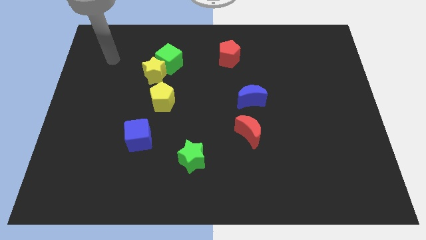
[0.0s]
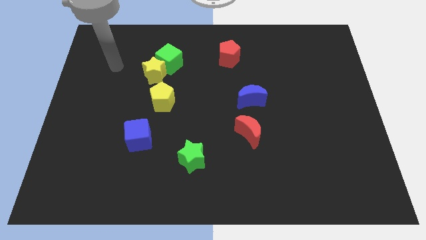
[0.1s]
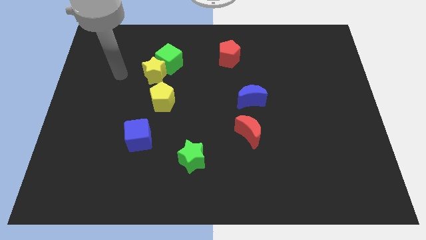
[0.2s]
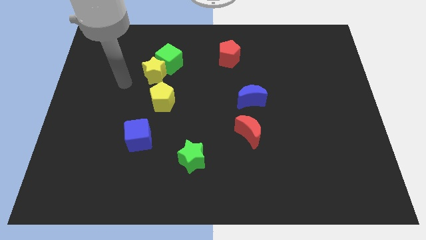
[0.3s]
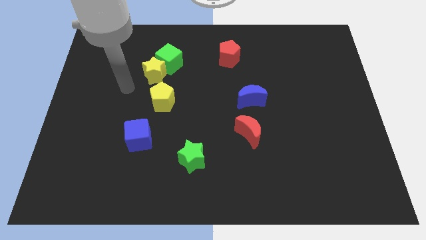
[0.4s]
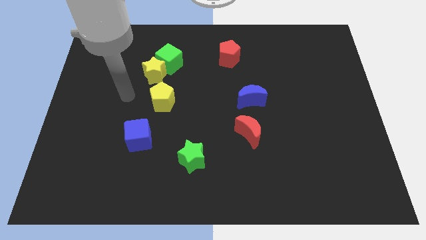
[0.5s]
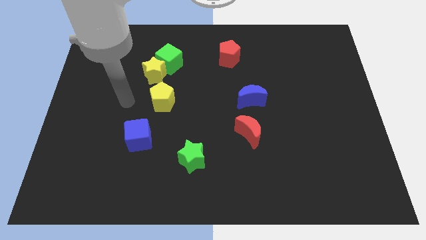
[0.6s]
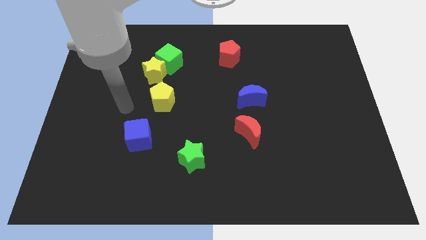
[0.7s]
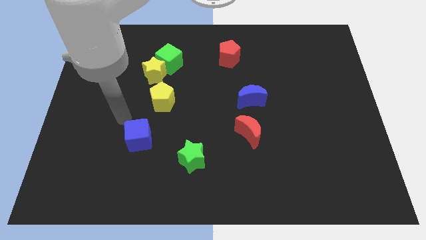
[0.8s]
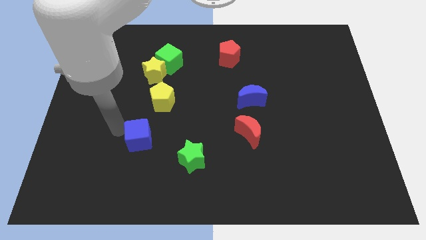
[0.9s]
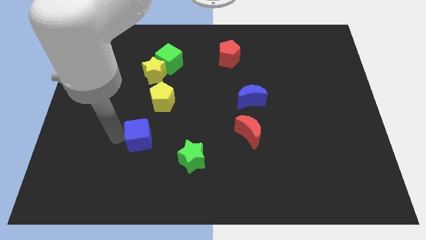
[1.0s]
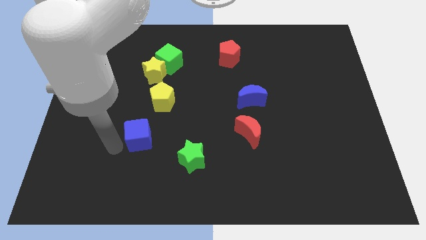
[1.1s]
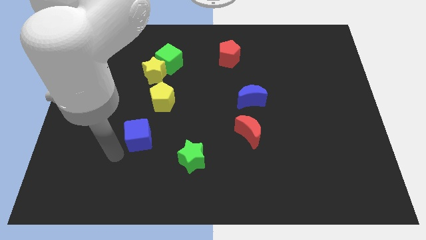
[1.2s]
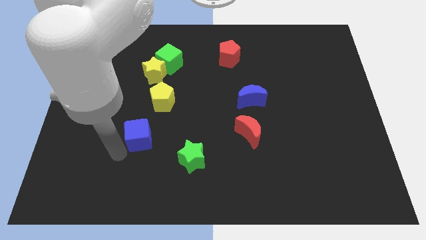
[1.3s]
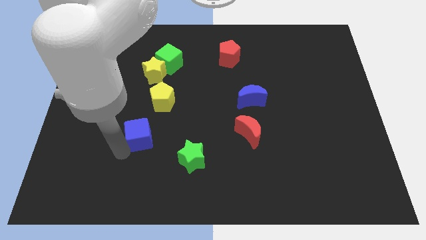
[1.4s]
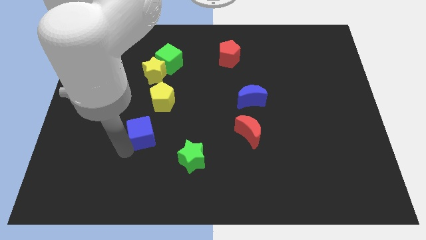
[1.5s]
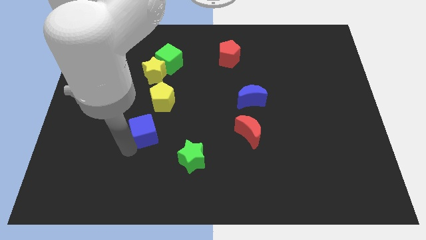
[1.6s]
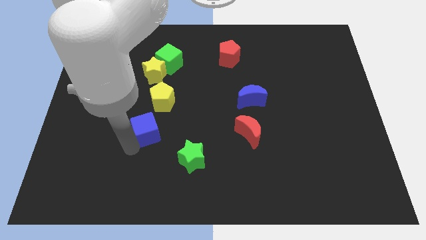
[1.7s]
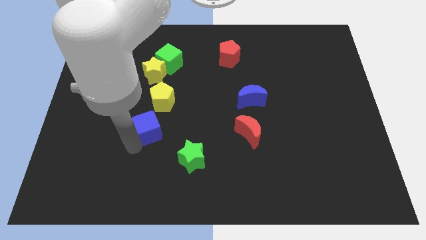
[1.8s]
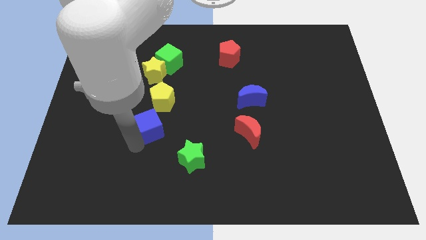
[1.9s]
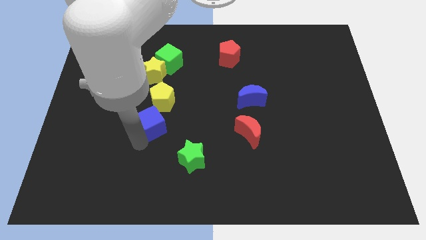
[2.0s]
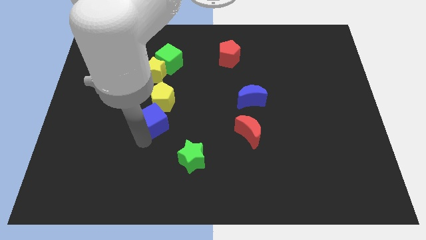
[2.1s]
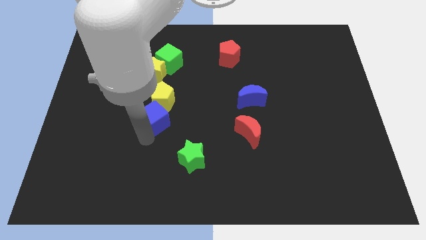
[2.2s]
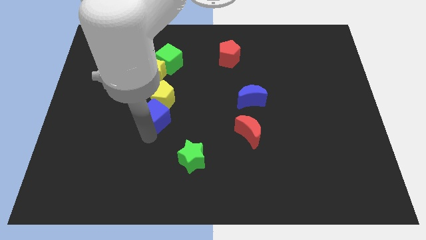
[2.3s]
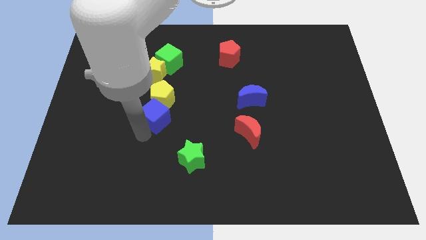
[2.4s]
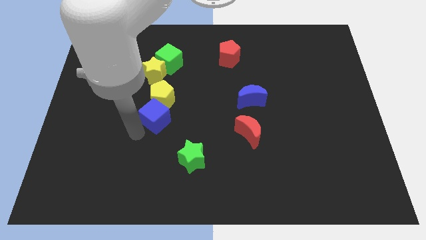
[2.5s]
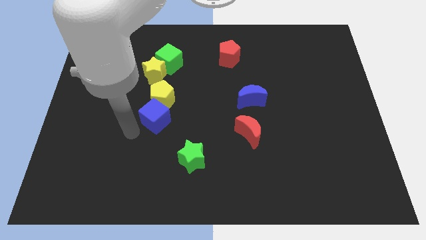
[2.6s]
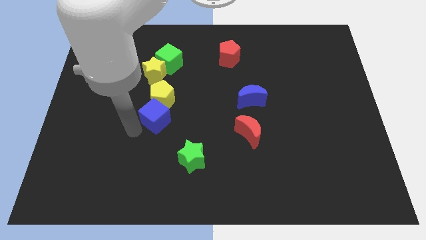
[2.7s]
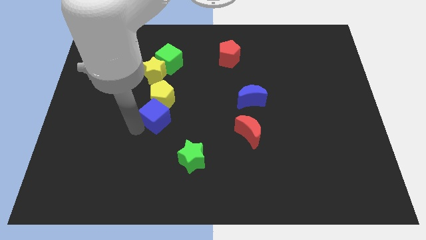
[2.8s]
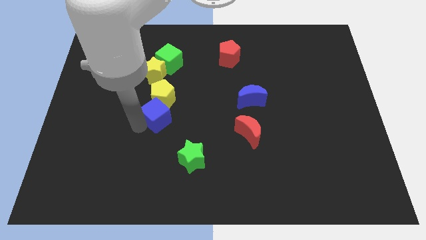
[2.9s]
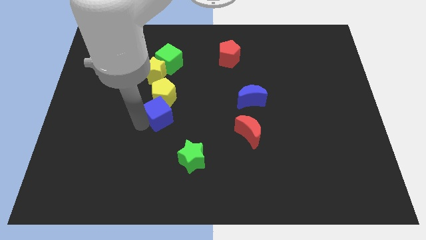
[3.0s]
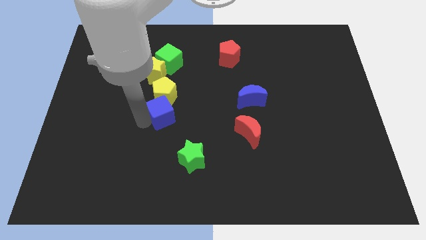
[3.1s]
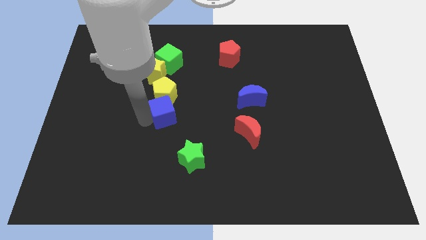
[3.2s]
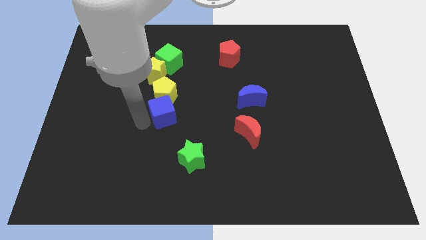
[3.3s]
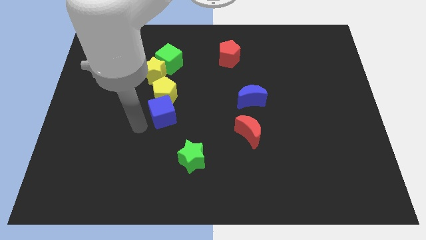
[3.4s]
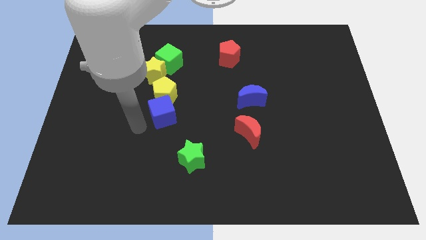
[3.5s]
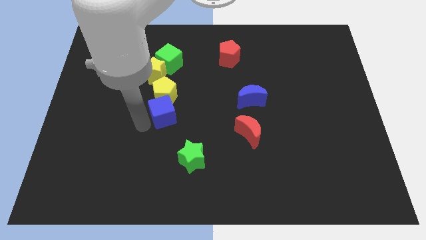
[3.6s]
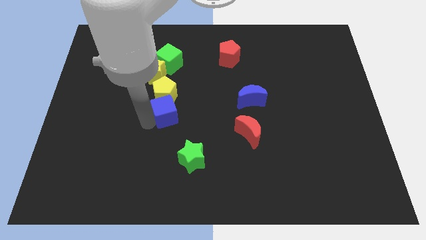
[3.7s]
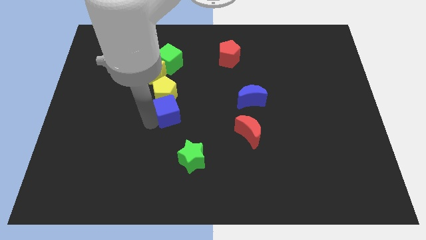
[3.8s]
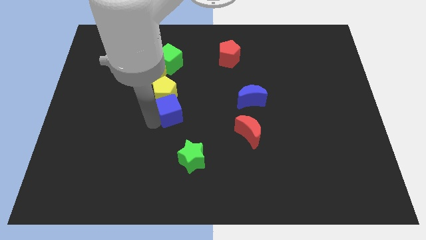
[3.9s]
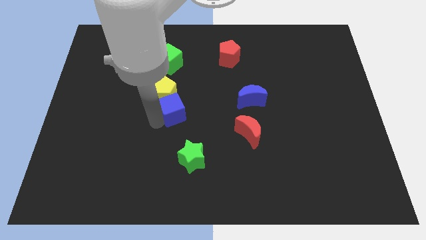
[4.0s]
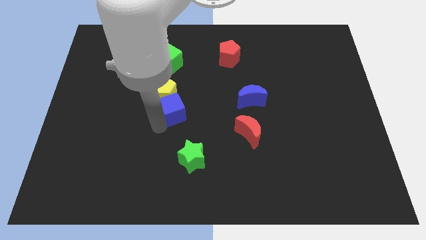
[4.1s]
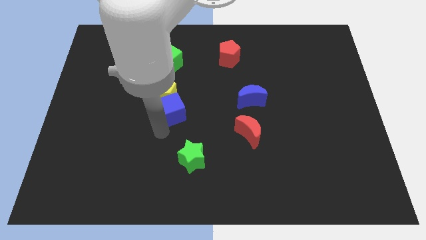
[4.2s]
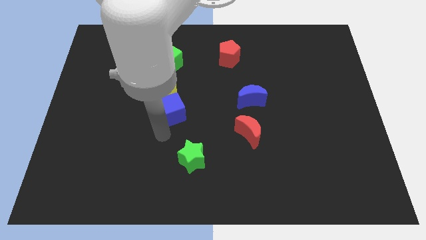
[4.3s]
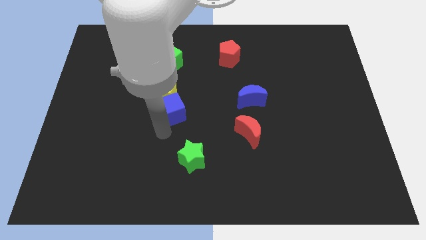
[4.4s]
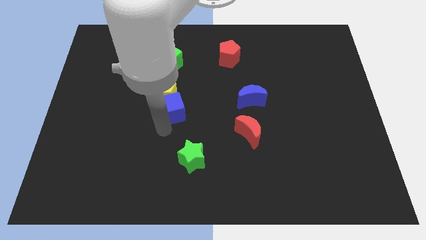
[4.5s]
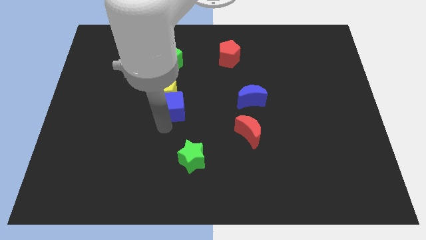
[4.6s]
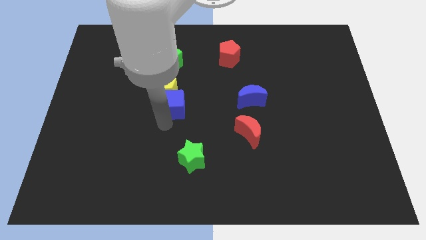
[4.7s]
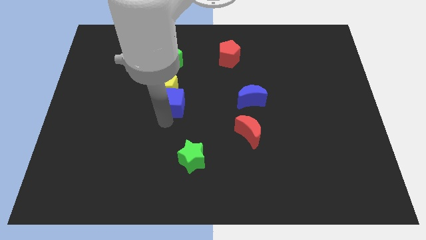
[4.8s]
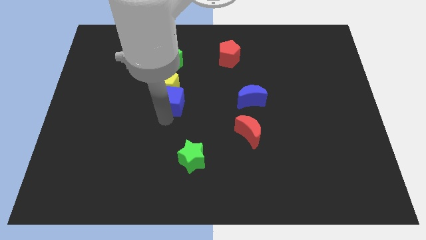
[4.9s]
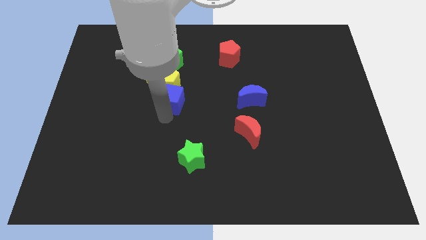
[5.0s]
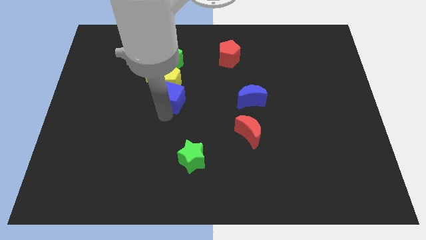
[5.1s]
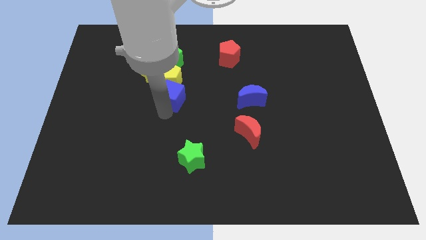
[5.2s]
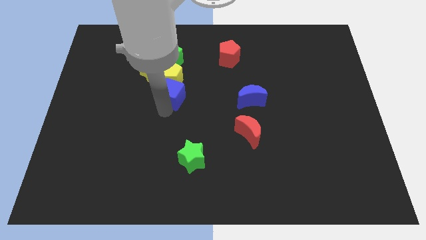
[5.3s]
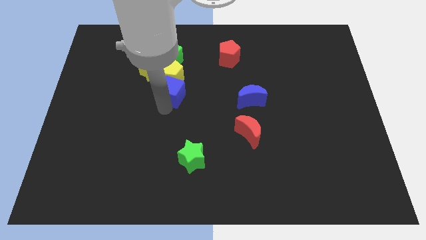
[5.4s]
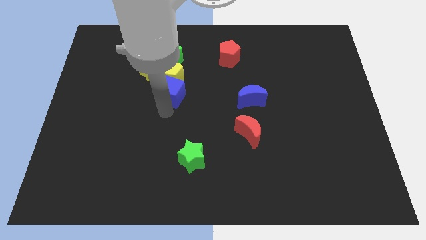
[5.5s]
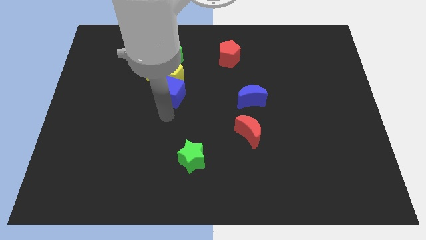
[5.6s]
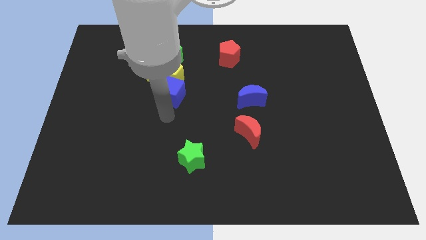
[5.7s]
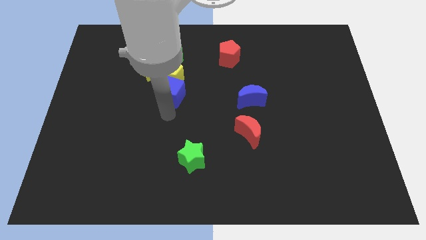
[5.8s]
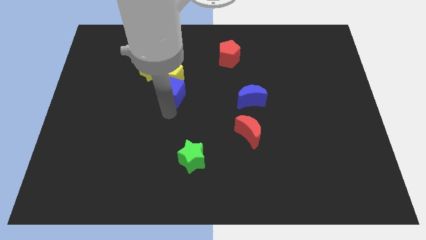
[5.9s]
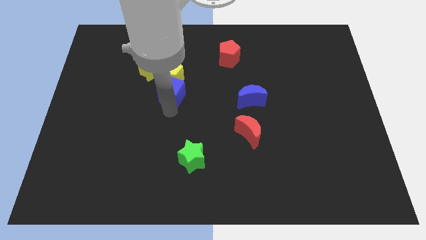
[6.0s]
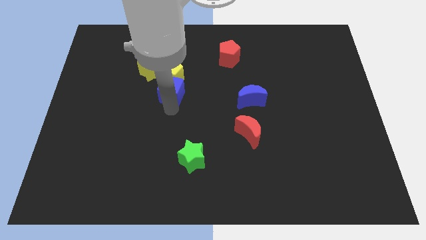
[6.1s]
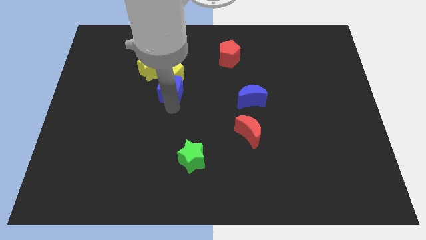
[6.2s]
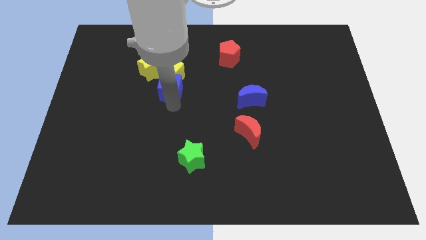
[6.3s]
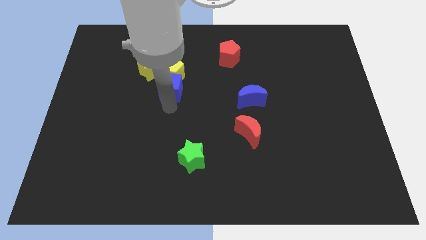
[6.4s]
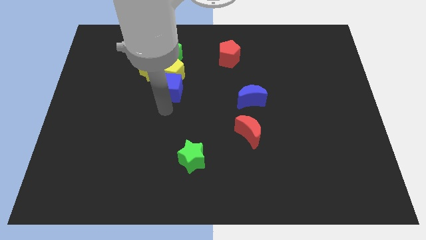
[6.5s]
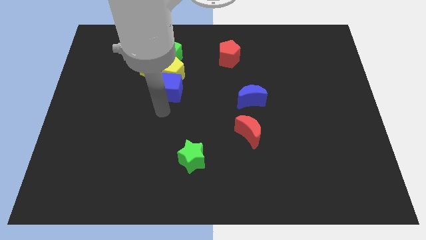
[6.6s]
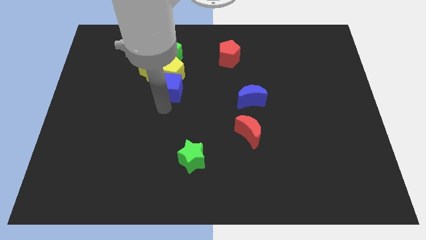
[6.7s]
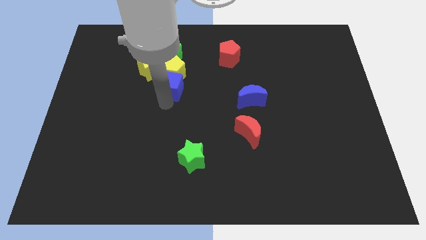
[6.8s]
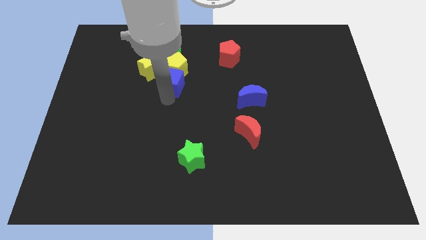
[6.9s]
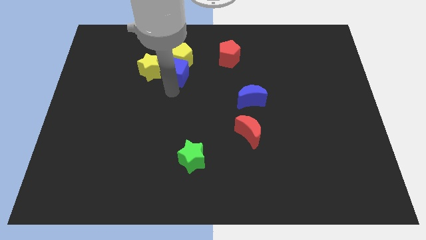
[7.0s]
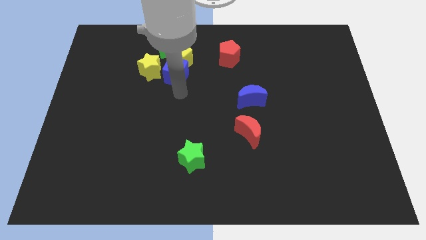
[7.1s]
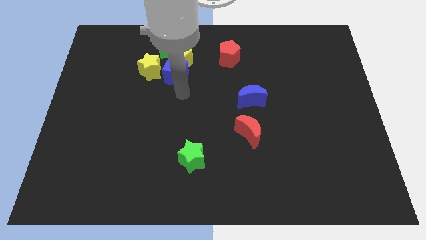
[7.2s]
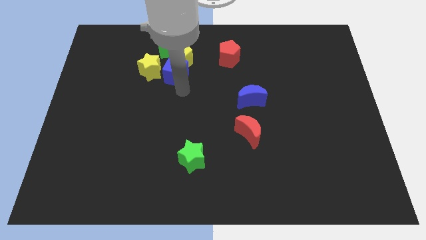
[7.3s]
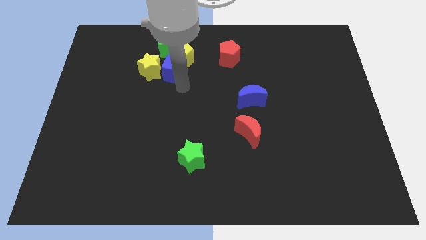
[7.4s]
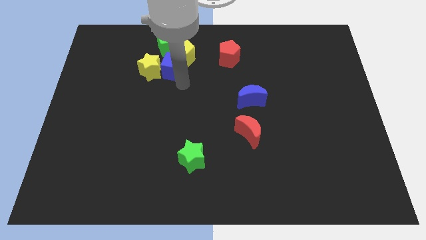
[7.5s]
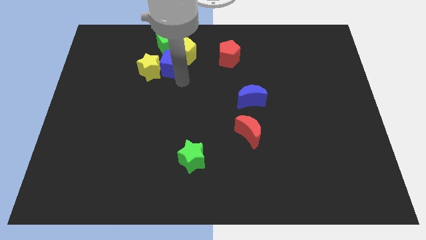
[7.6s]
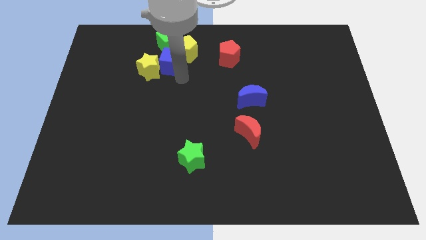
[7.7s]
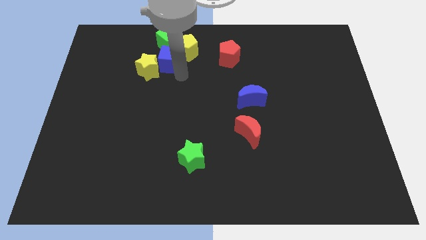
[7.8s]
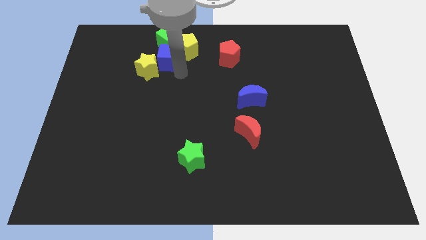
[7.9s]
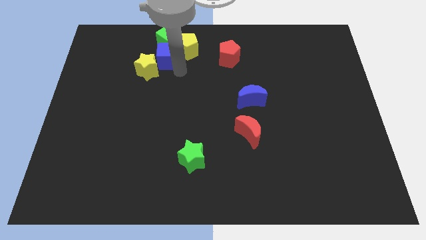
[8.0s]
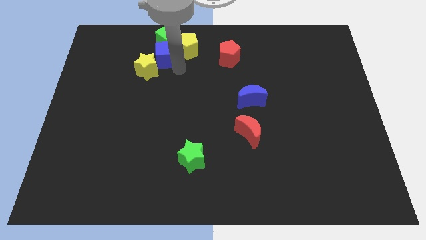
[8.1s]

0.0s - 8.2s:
move the blue cube towards the green cube
